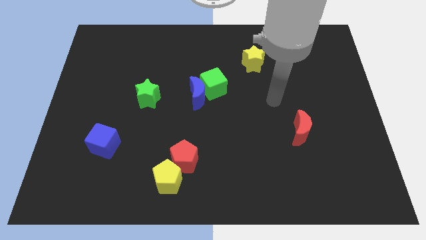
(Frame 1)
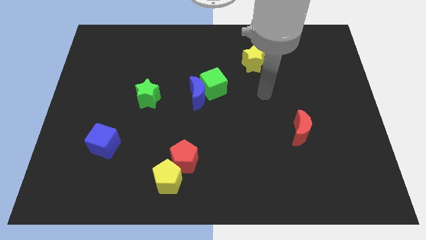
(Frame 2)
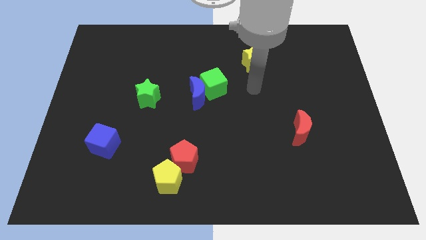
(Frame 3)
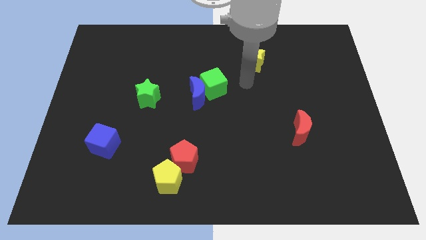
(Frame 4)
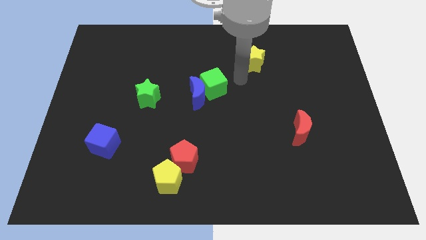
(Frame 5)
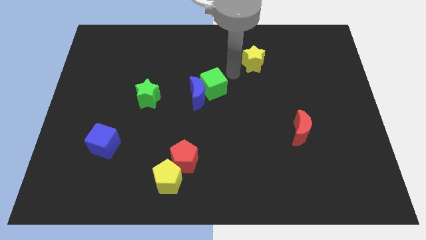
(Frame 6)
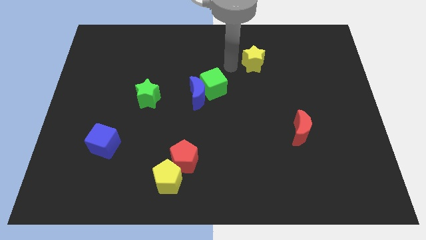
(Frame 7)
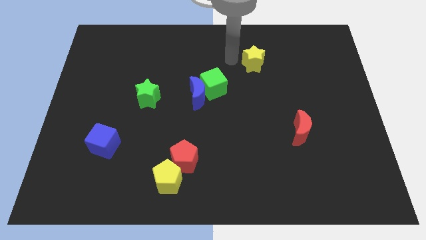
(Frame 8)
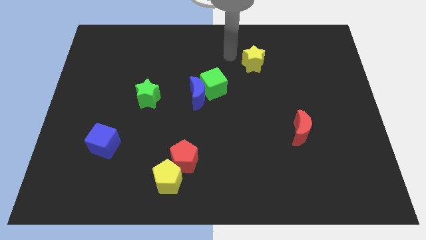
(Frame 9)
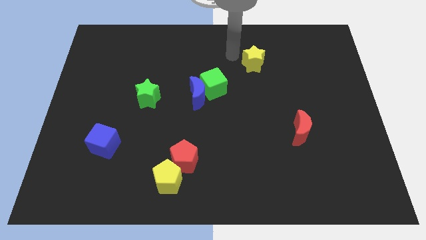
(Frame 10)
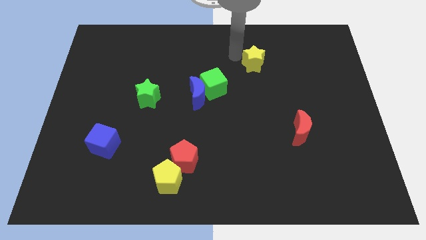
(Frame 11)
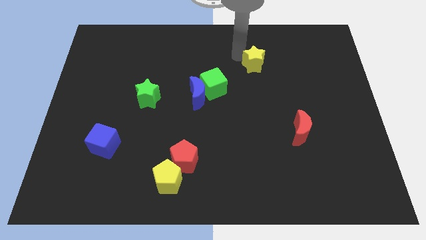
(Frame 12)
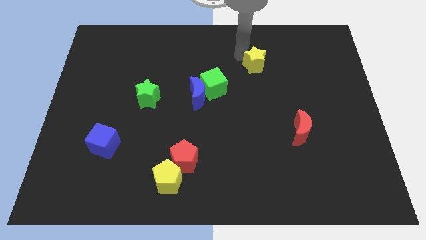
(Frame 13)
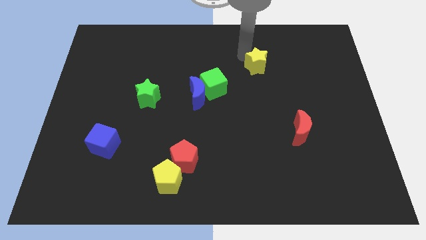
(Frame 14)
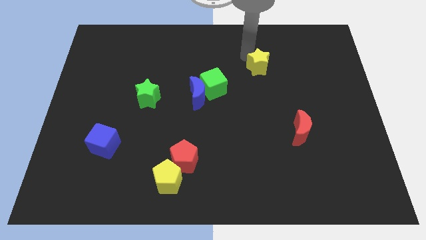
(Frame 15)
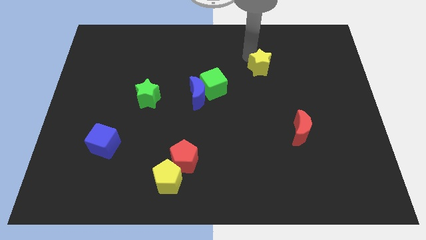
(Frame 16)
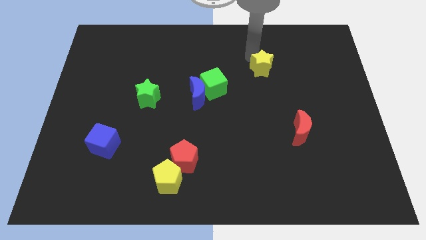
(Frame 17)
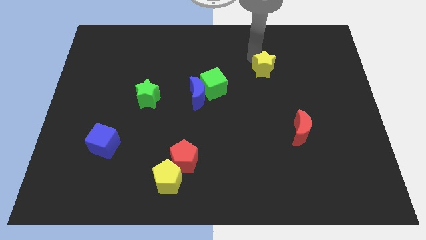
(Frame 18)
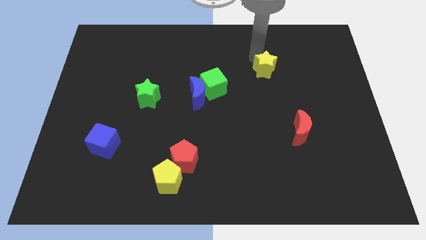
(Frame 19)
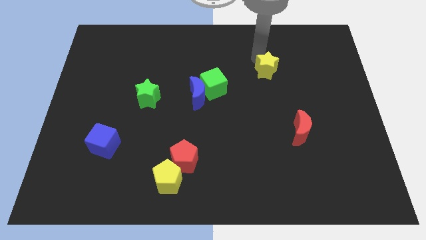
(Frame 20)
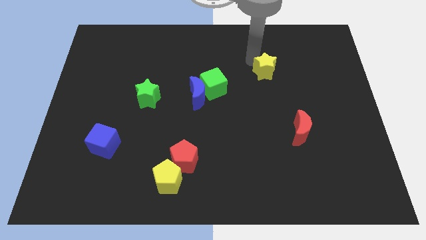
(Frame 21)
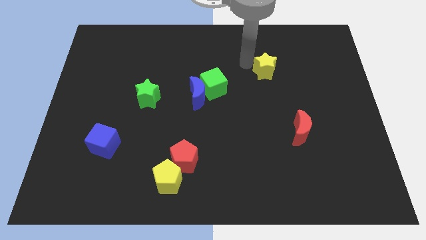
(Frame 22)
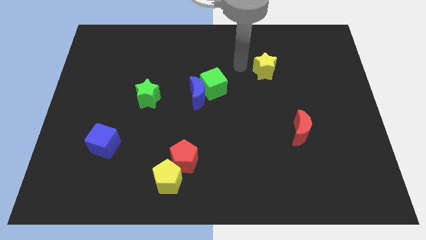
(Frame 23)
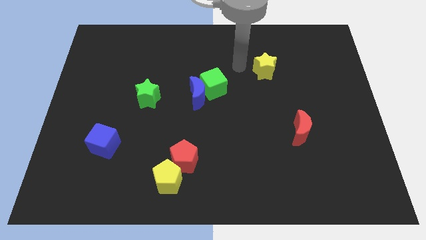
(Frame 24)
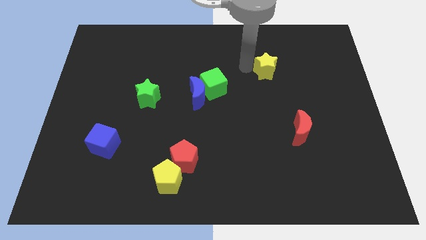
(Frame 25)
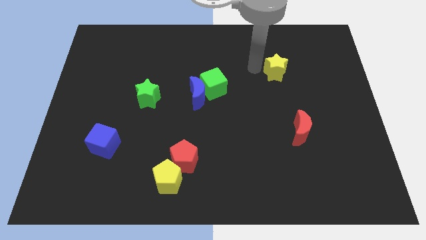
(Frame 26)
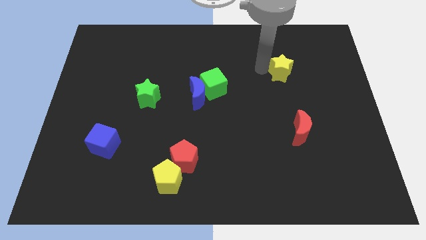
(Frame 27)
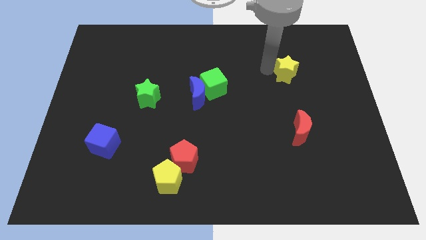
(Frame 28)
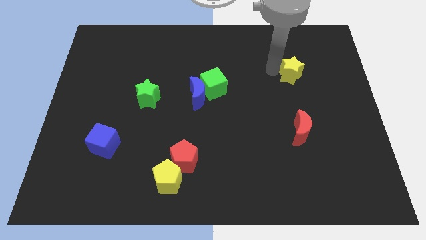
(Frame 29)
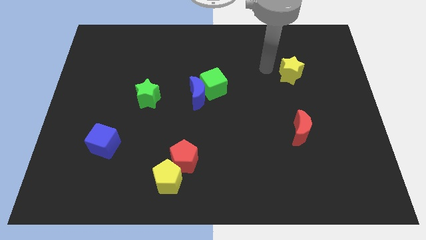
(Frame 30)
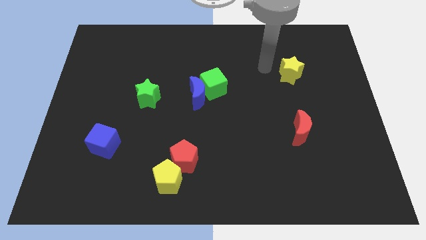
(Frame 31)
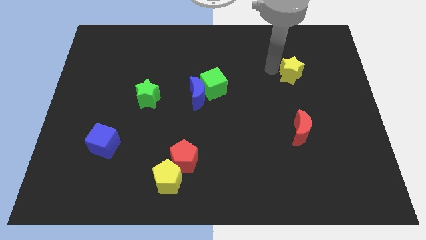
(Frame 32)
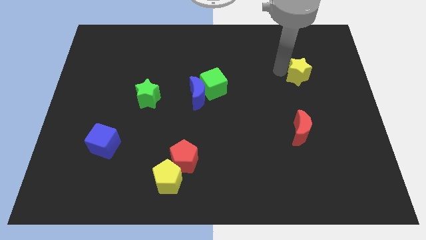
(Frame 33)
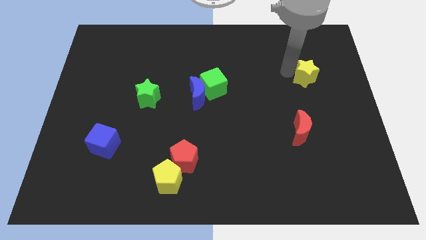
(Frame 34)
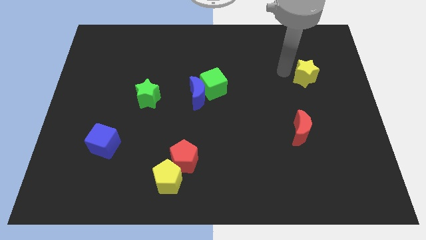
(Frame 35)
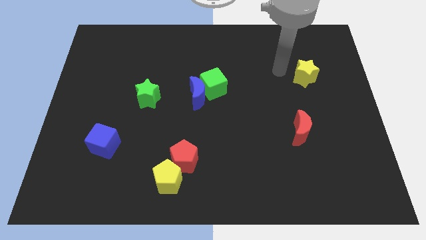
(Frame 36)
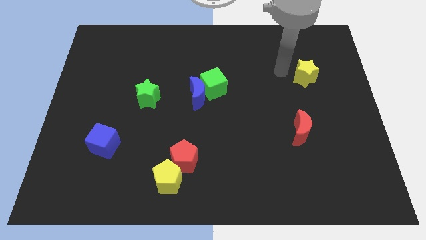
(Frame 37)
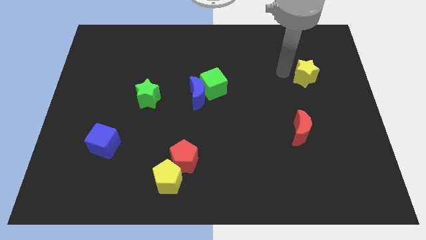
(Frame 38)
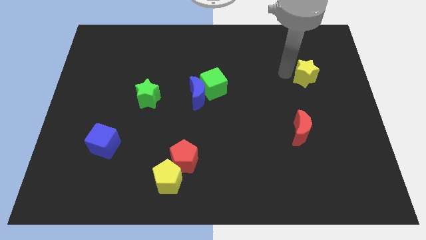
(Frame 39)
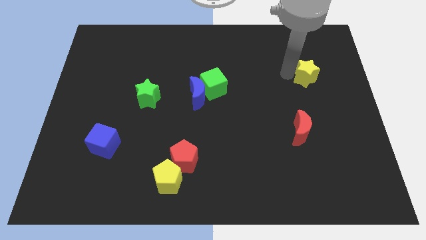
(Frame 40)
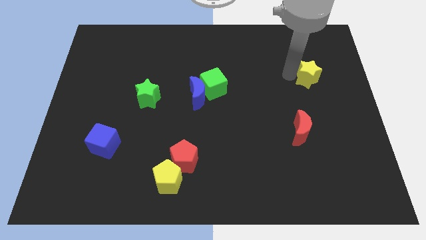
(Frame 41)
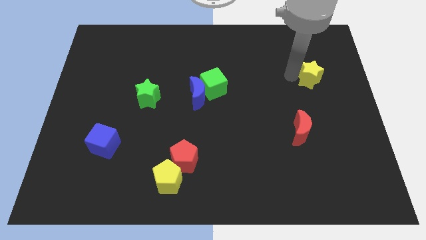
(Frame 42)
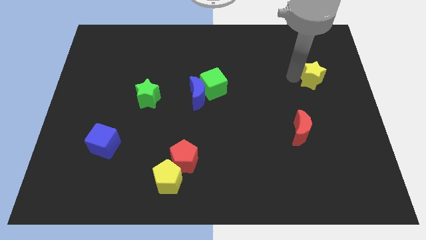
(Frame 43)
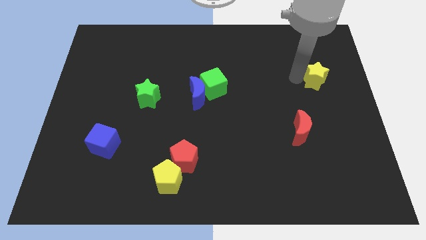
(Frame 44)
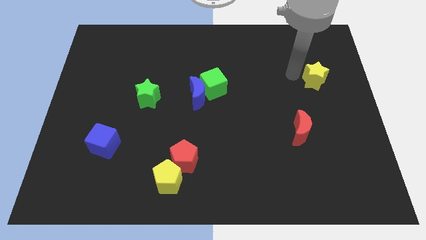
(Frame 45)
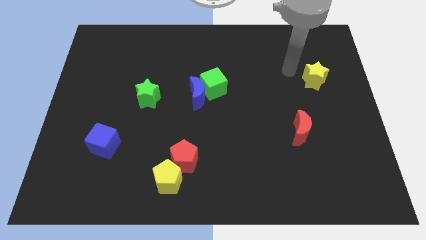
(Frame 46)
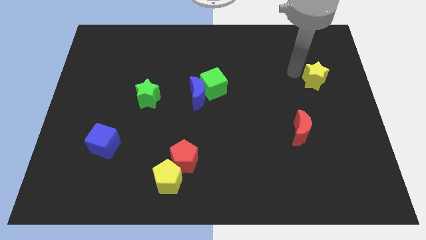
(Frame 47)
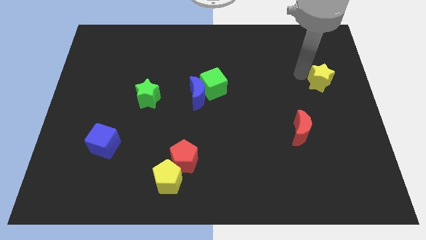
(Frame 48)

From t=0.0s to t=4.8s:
push the yellow star to the center right

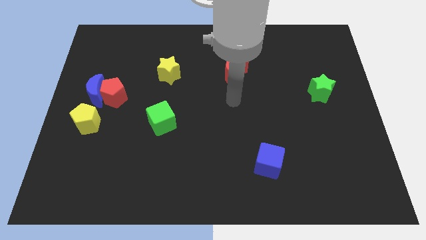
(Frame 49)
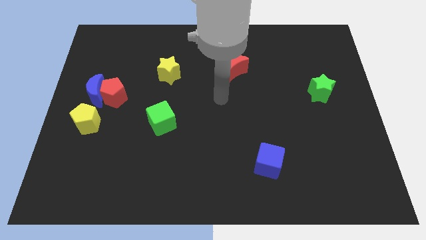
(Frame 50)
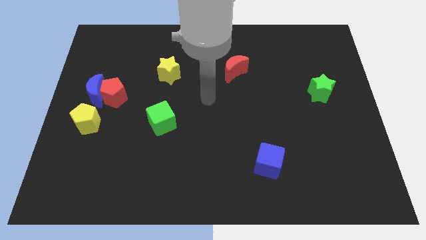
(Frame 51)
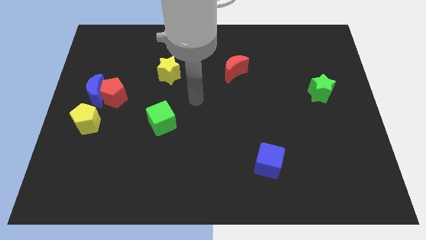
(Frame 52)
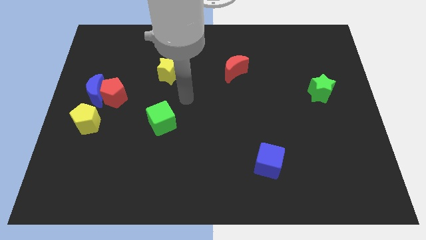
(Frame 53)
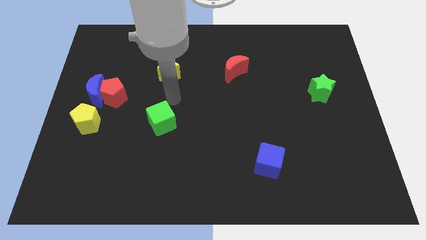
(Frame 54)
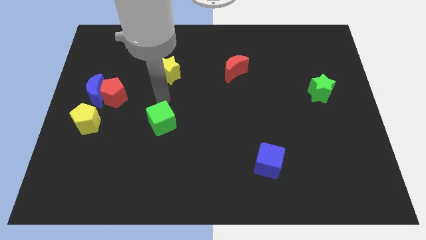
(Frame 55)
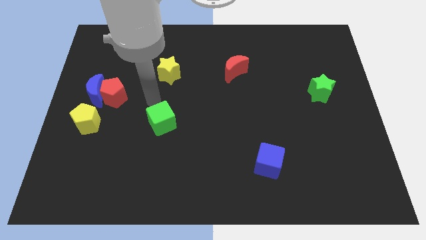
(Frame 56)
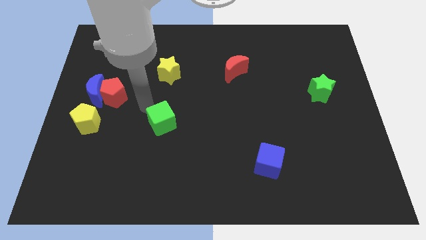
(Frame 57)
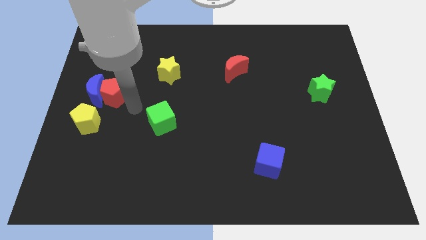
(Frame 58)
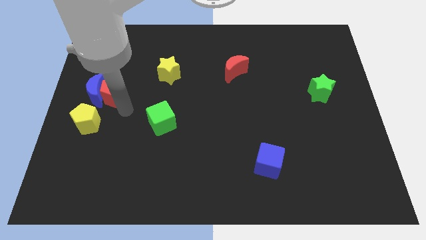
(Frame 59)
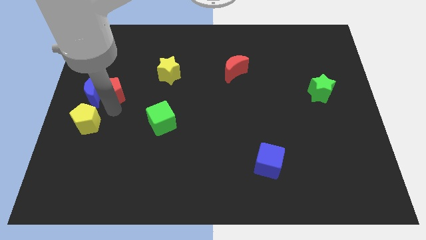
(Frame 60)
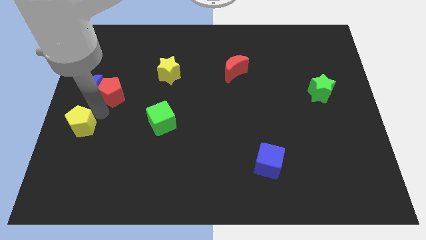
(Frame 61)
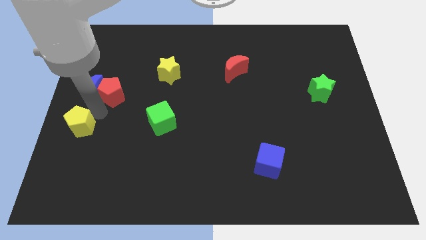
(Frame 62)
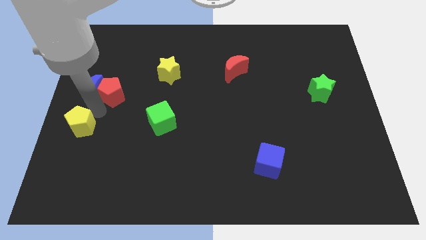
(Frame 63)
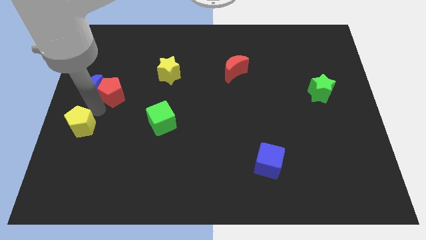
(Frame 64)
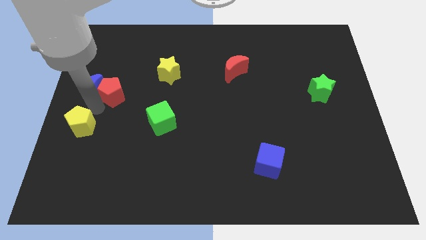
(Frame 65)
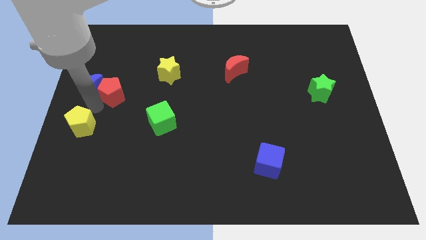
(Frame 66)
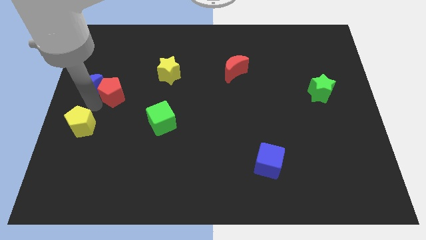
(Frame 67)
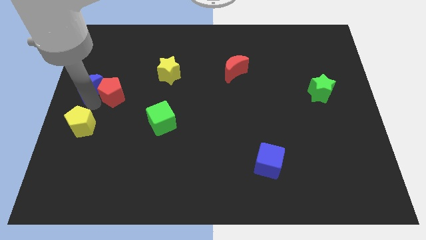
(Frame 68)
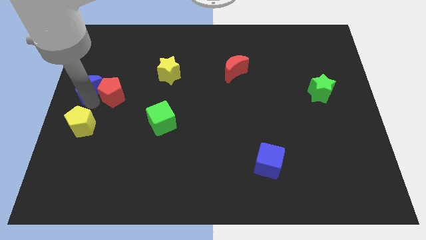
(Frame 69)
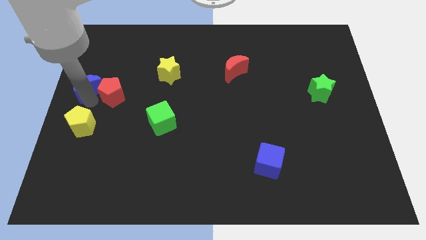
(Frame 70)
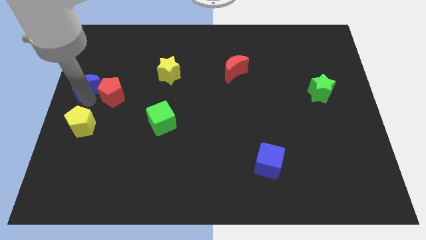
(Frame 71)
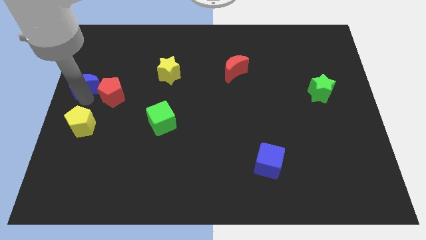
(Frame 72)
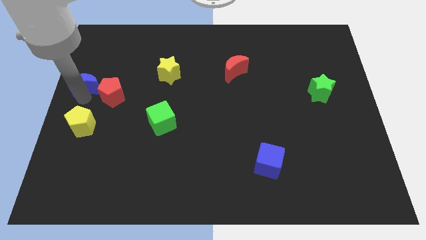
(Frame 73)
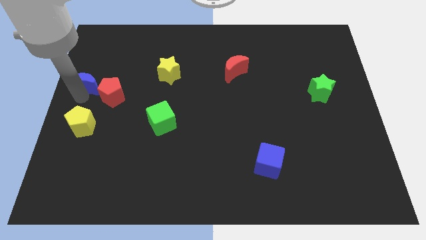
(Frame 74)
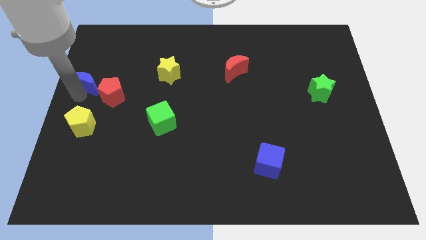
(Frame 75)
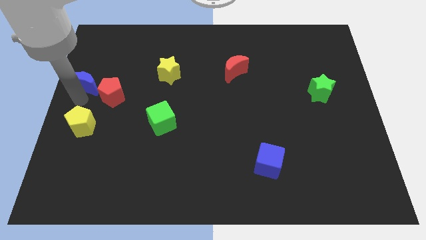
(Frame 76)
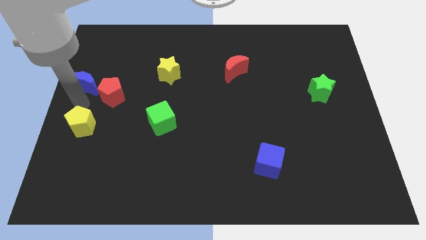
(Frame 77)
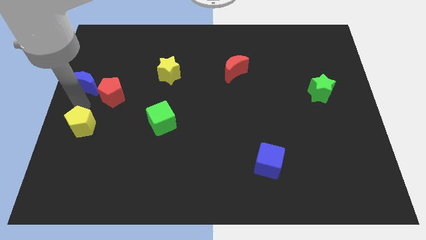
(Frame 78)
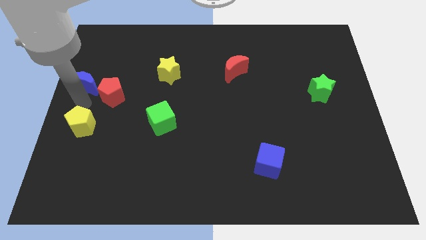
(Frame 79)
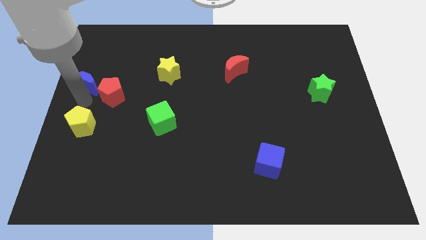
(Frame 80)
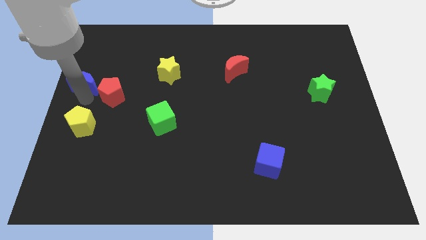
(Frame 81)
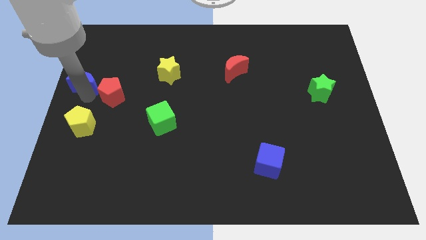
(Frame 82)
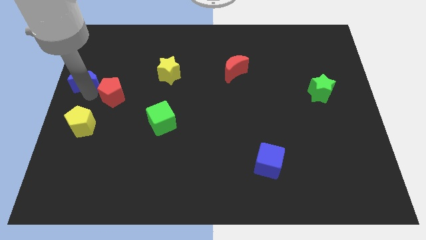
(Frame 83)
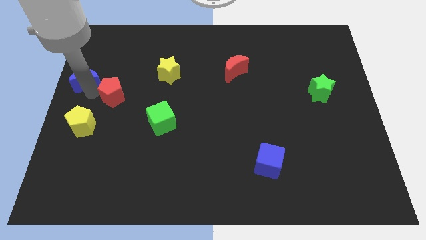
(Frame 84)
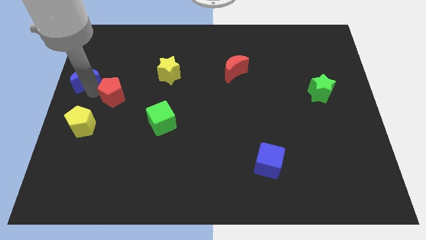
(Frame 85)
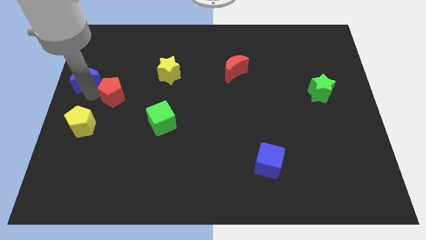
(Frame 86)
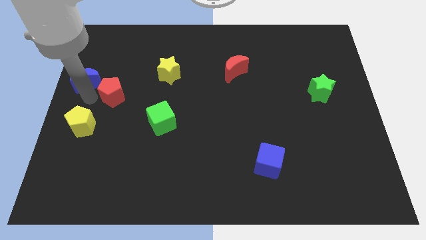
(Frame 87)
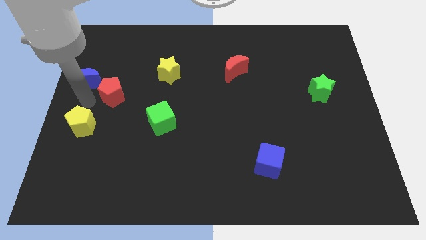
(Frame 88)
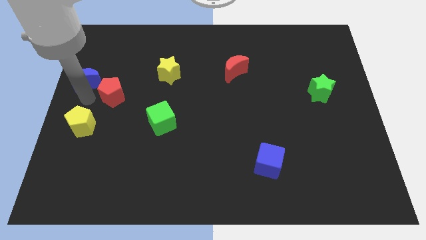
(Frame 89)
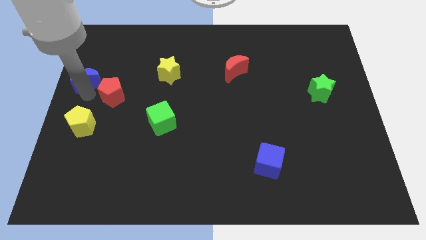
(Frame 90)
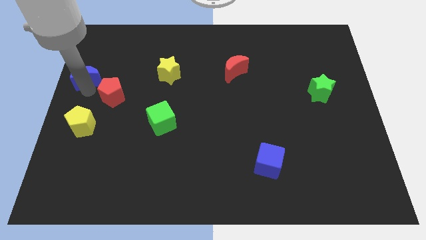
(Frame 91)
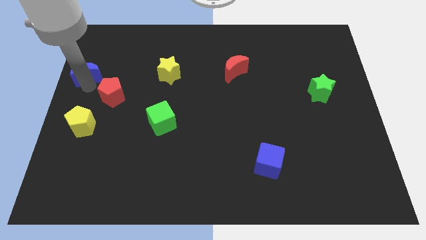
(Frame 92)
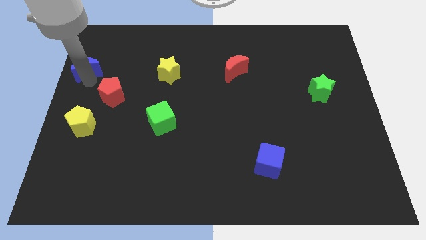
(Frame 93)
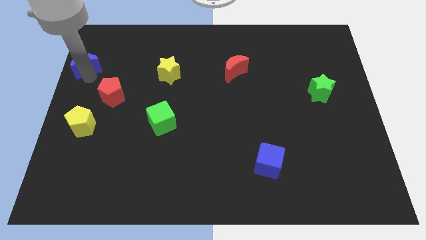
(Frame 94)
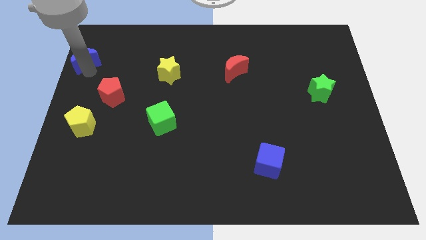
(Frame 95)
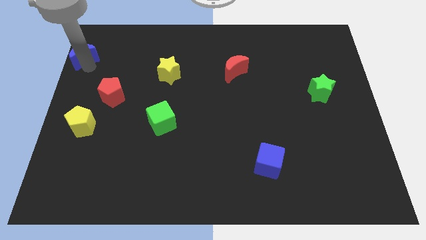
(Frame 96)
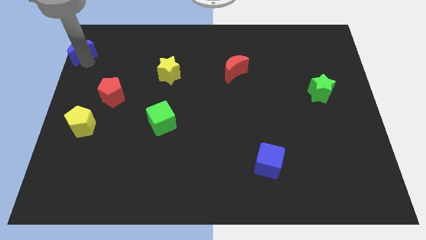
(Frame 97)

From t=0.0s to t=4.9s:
move the blue moon to the top left of the board
